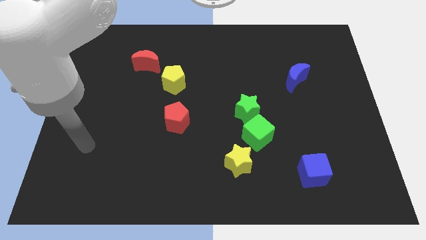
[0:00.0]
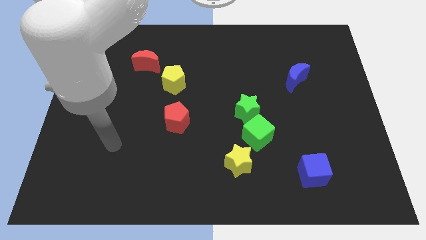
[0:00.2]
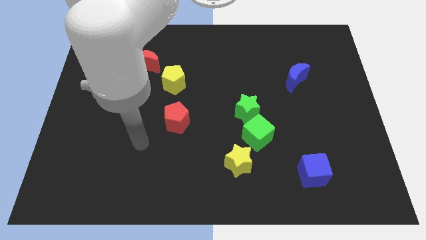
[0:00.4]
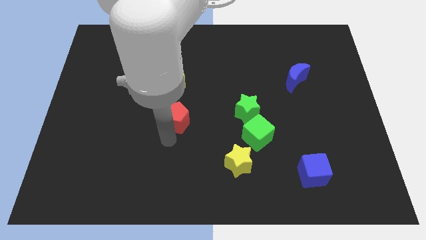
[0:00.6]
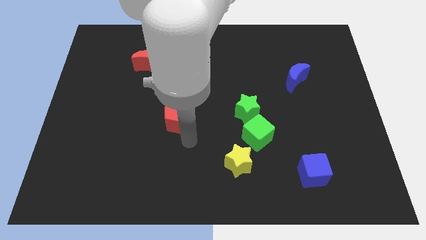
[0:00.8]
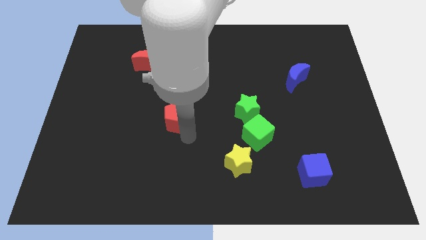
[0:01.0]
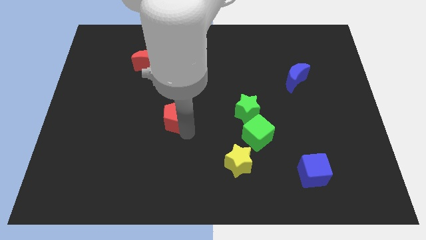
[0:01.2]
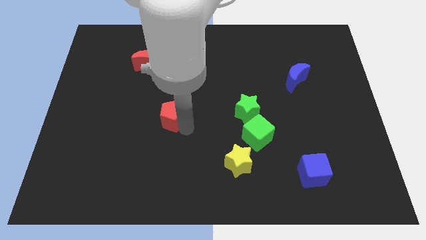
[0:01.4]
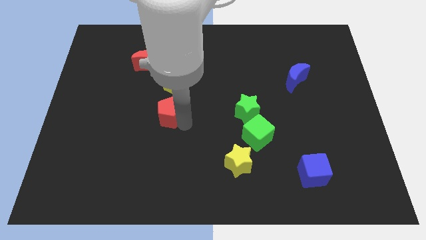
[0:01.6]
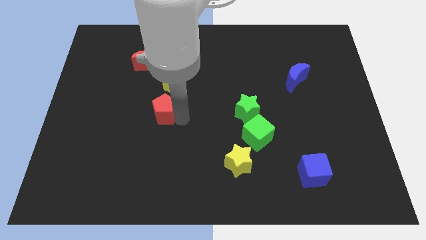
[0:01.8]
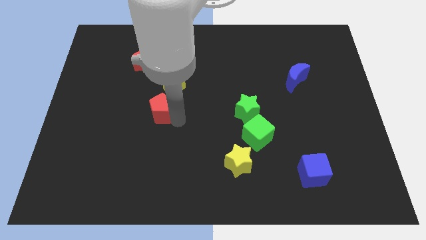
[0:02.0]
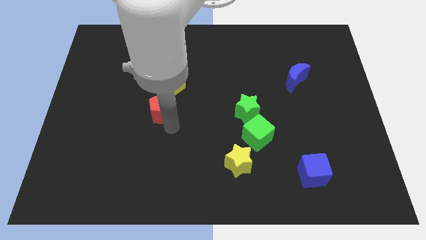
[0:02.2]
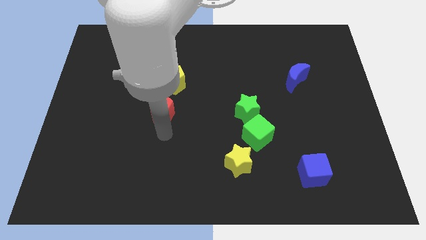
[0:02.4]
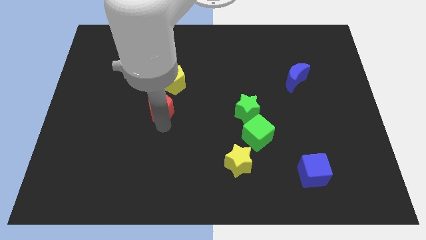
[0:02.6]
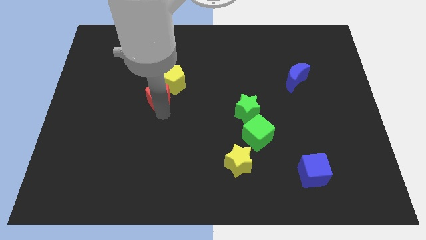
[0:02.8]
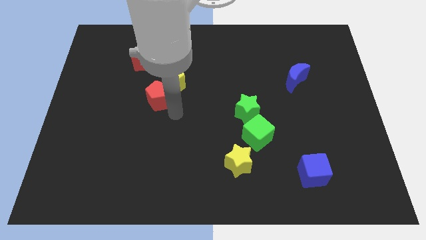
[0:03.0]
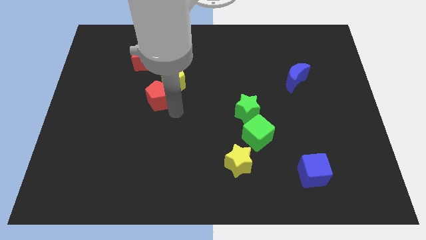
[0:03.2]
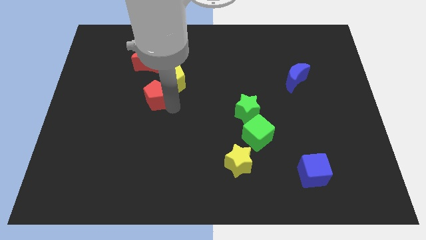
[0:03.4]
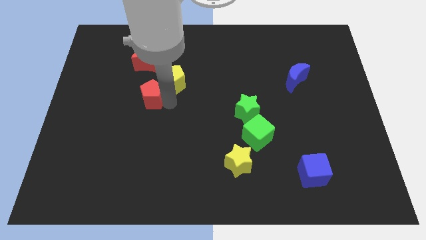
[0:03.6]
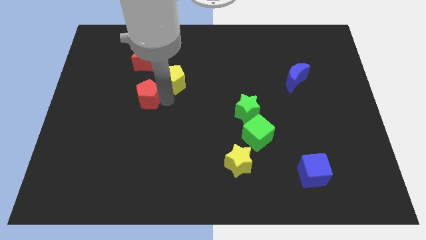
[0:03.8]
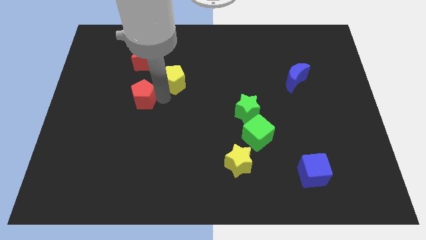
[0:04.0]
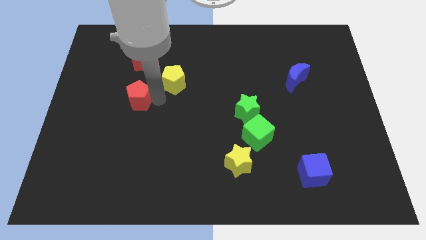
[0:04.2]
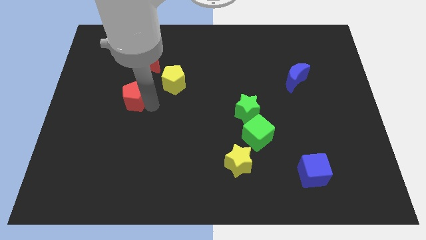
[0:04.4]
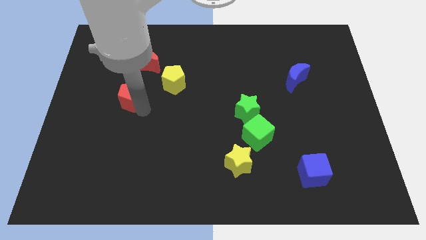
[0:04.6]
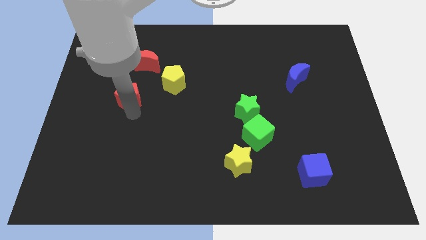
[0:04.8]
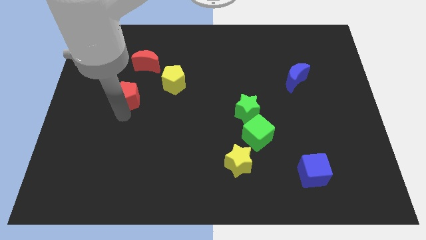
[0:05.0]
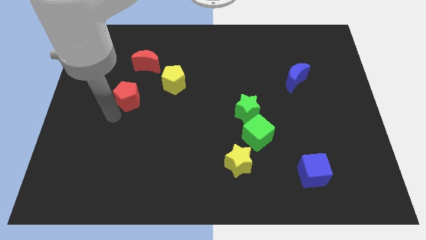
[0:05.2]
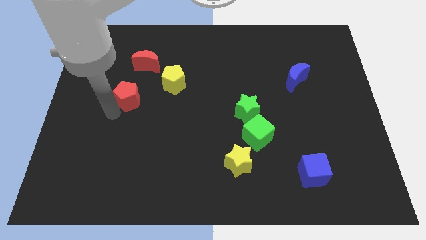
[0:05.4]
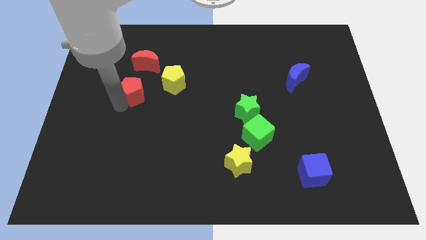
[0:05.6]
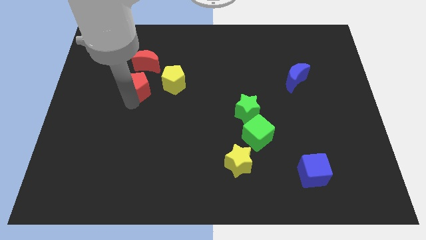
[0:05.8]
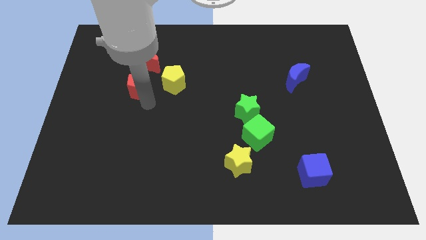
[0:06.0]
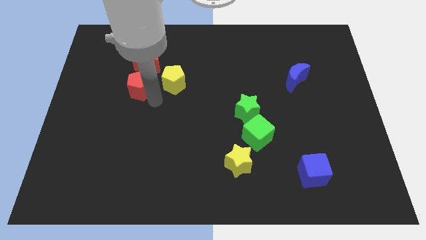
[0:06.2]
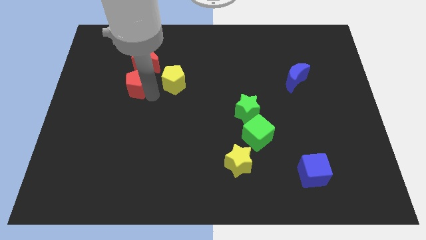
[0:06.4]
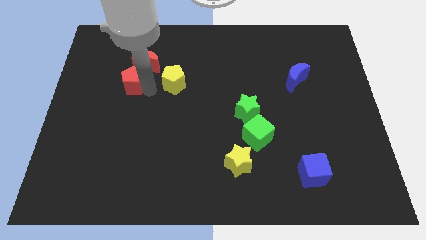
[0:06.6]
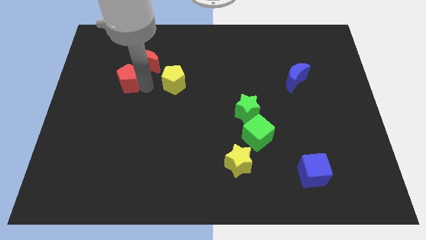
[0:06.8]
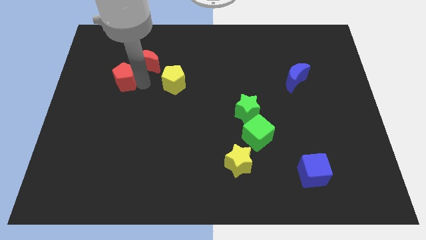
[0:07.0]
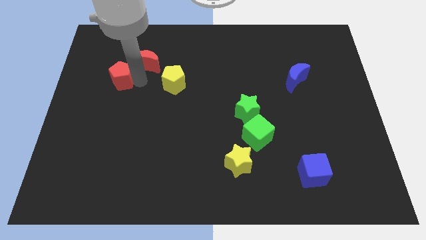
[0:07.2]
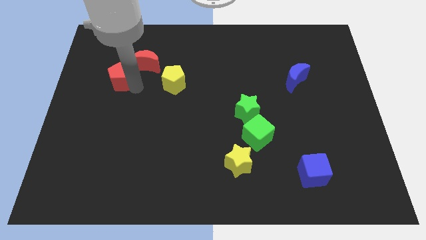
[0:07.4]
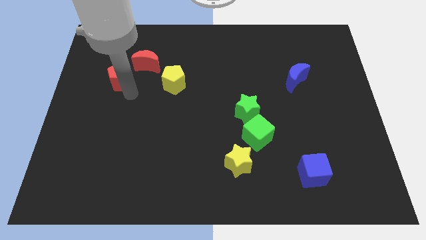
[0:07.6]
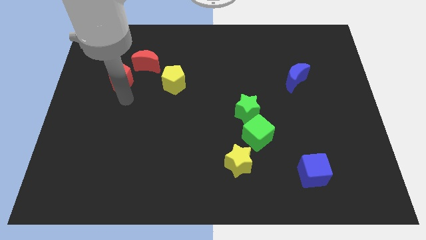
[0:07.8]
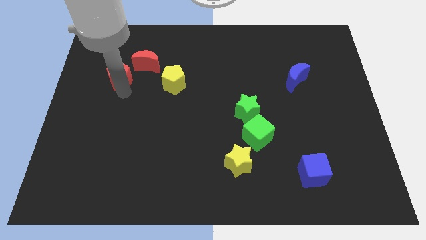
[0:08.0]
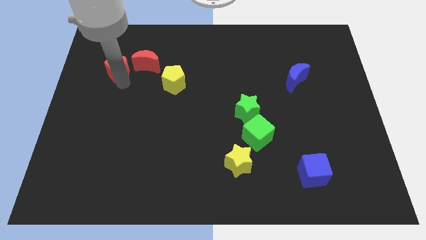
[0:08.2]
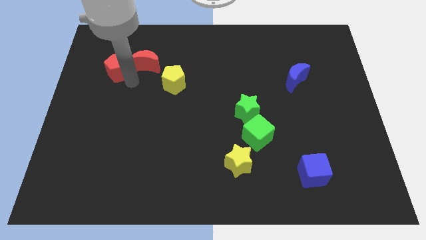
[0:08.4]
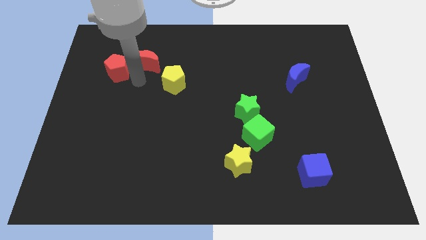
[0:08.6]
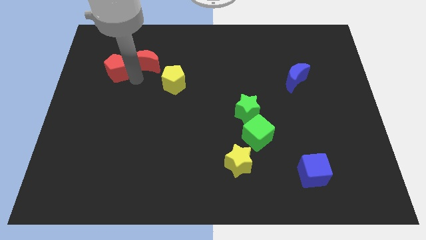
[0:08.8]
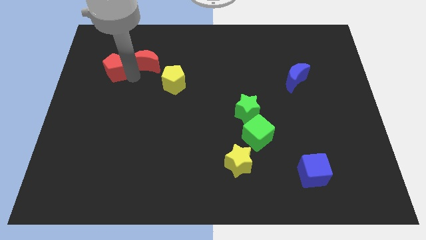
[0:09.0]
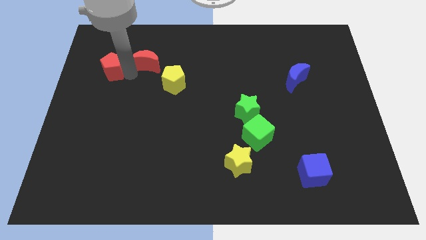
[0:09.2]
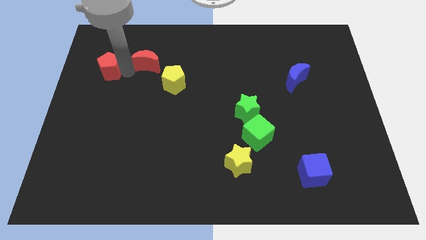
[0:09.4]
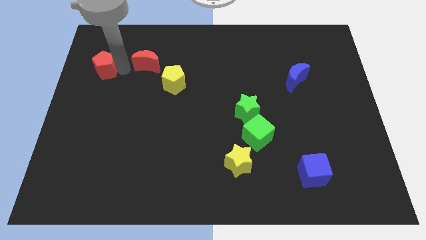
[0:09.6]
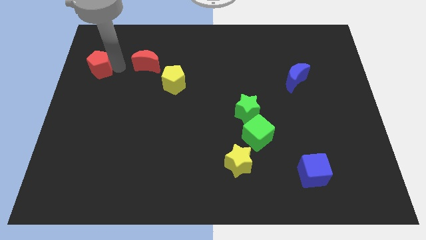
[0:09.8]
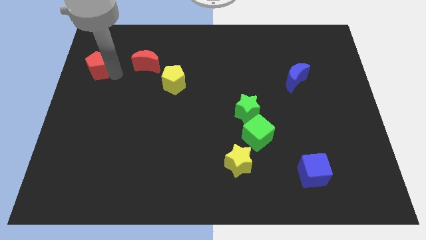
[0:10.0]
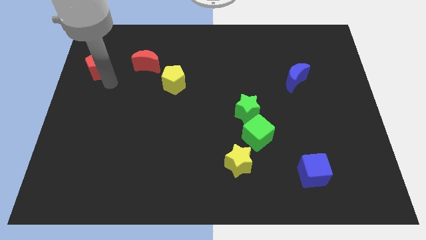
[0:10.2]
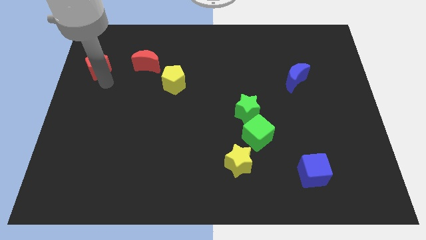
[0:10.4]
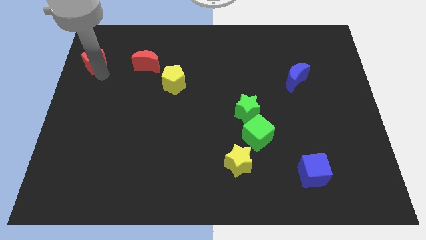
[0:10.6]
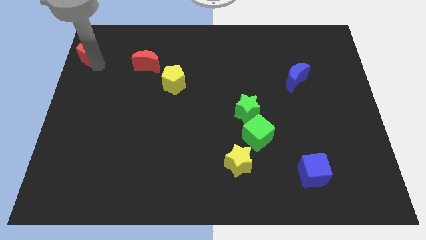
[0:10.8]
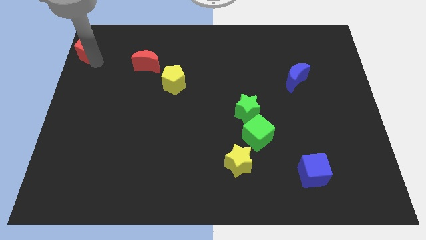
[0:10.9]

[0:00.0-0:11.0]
push the red pentagon to the top left

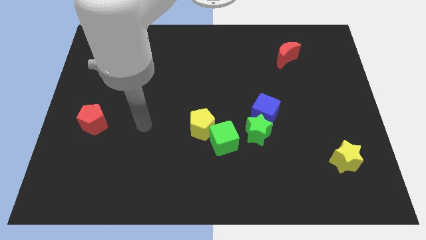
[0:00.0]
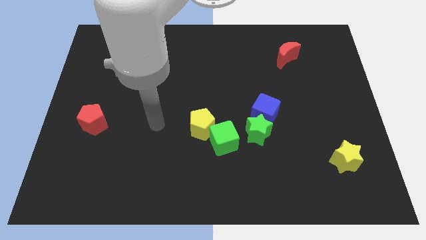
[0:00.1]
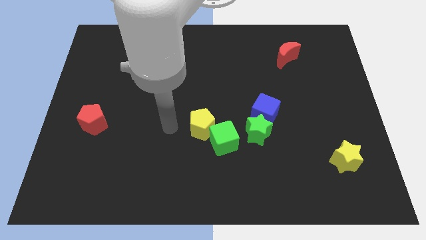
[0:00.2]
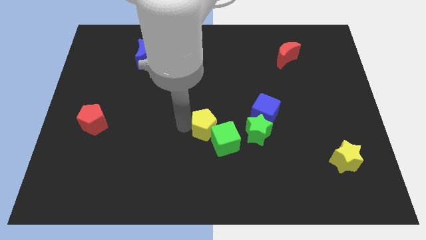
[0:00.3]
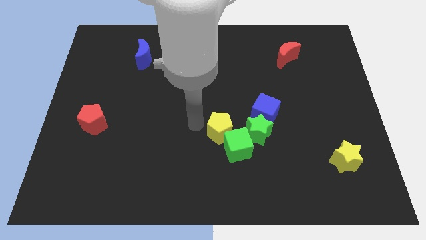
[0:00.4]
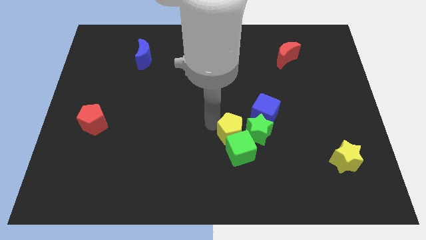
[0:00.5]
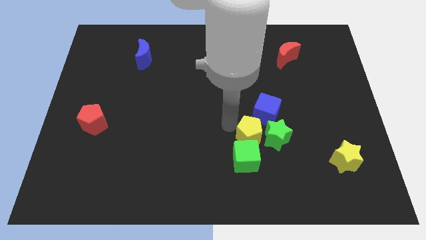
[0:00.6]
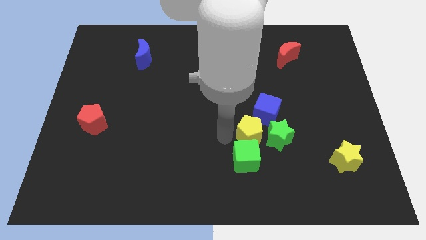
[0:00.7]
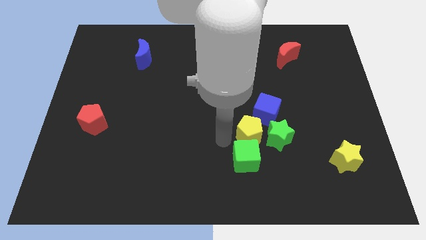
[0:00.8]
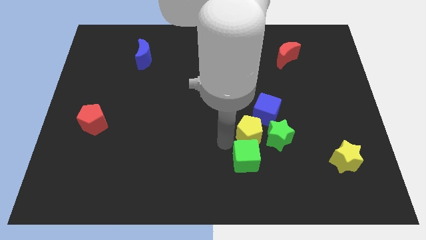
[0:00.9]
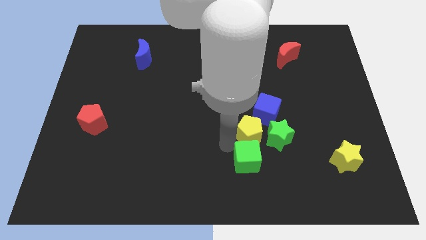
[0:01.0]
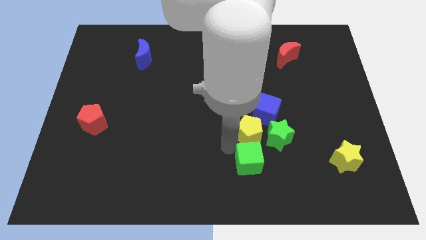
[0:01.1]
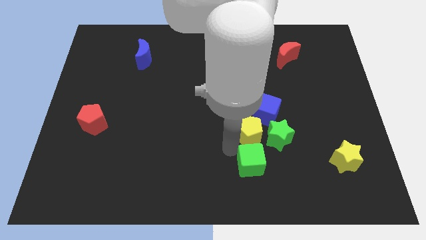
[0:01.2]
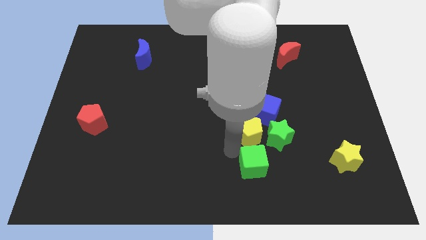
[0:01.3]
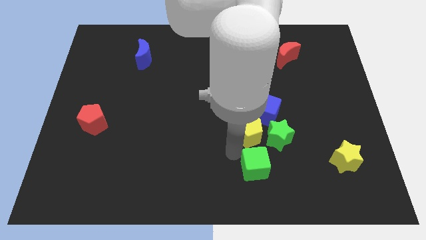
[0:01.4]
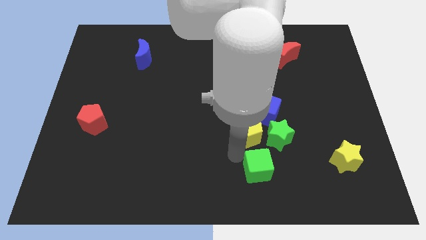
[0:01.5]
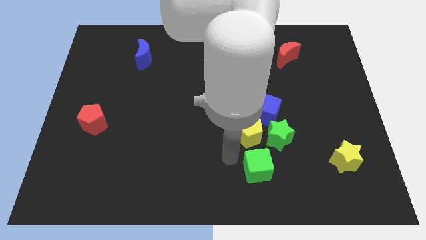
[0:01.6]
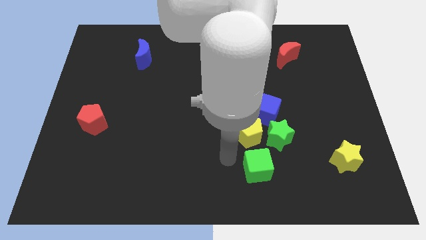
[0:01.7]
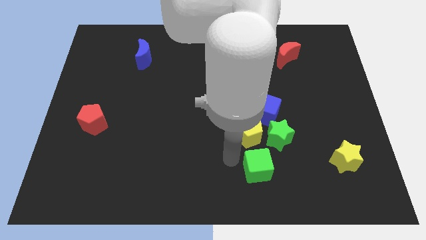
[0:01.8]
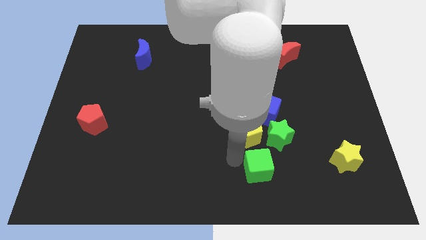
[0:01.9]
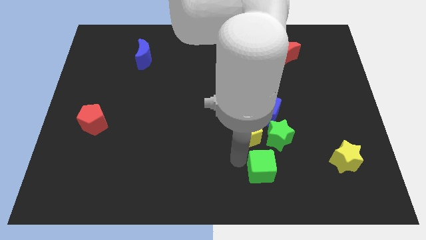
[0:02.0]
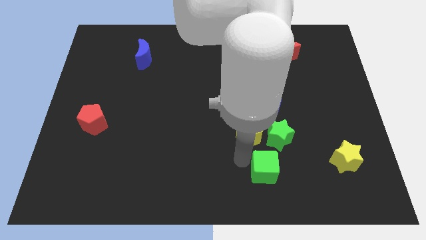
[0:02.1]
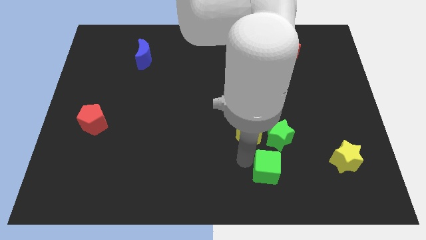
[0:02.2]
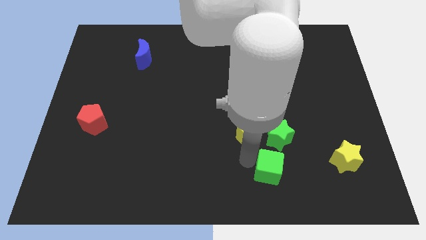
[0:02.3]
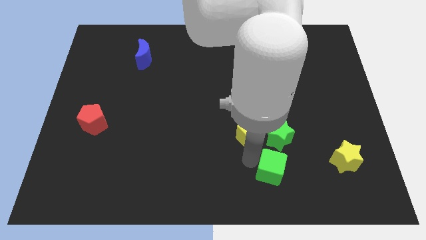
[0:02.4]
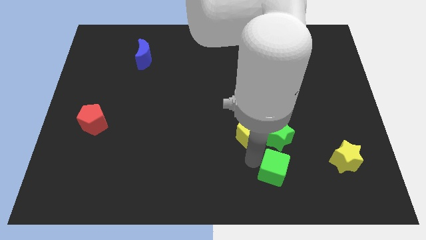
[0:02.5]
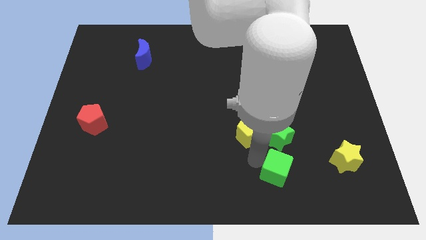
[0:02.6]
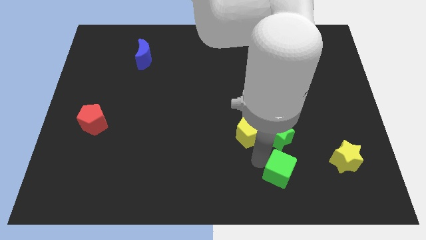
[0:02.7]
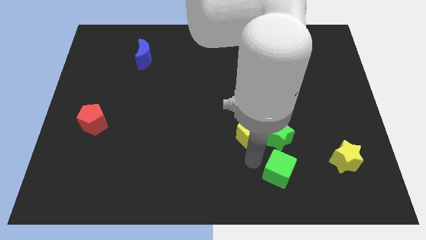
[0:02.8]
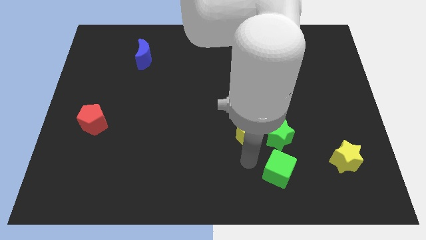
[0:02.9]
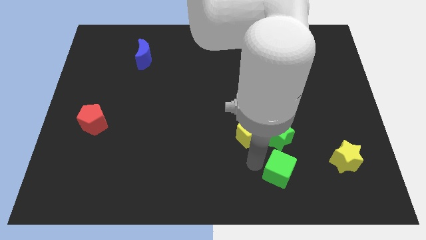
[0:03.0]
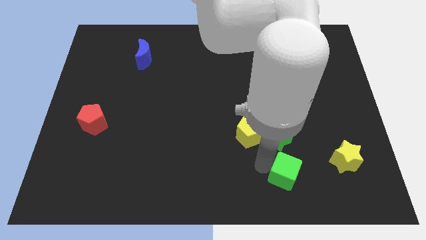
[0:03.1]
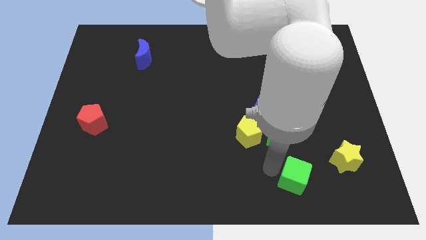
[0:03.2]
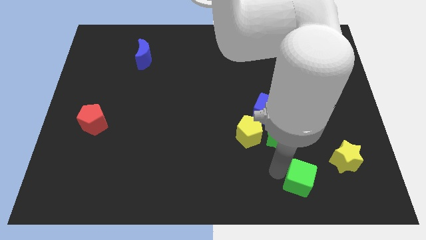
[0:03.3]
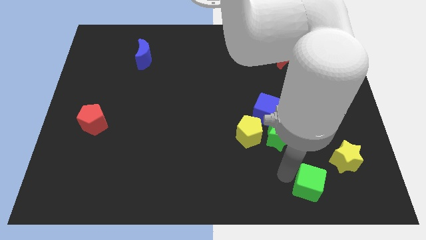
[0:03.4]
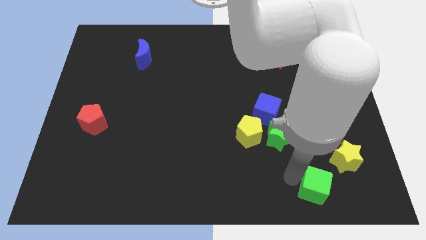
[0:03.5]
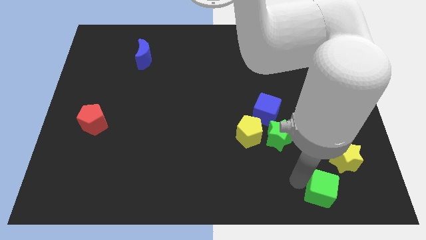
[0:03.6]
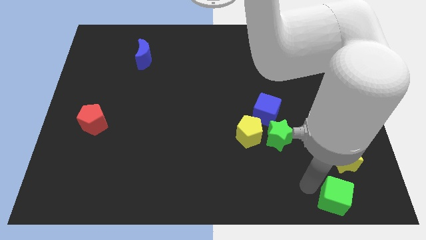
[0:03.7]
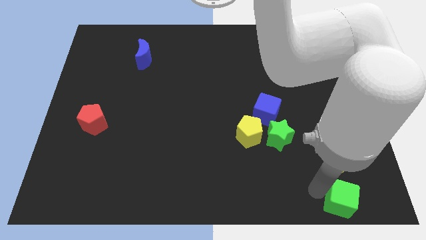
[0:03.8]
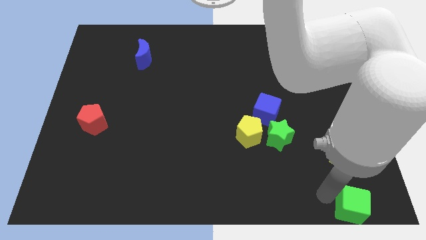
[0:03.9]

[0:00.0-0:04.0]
put the green cube to the lower right corner
